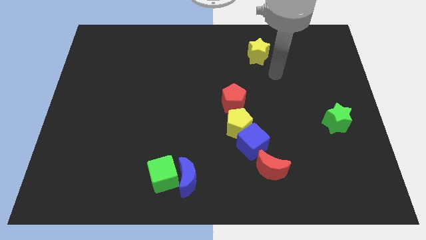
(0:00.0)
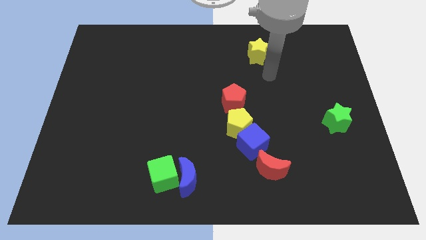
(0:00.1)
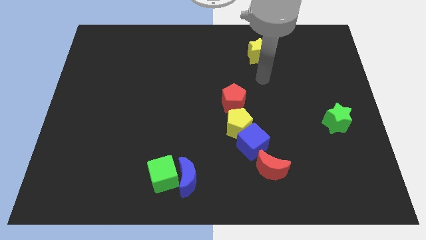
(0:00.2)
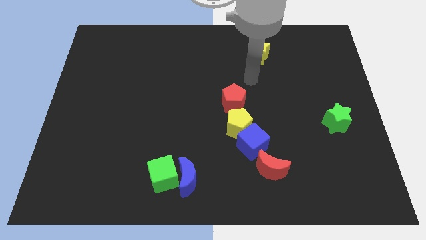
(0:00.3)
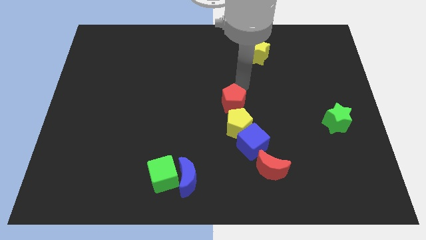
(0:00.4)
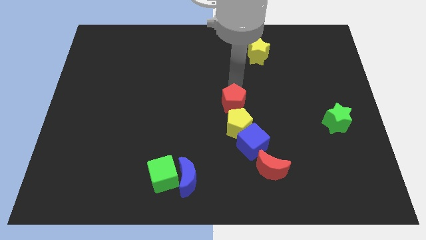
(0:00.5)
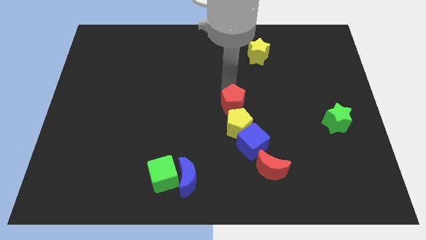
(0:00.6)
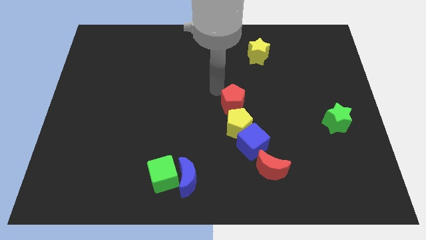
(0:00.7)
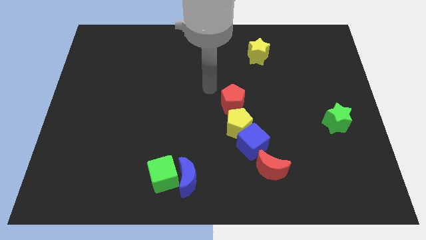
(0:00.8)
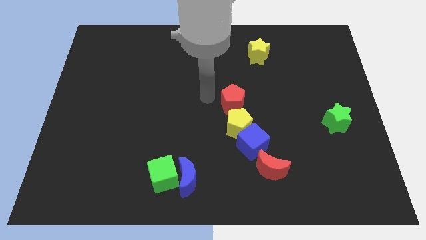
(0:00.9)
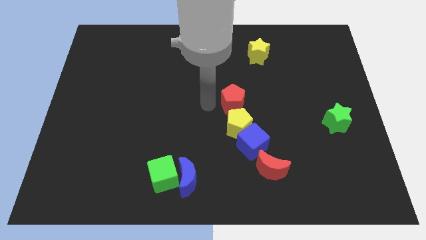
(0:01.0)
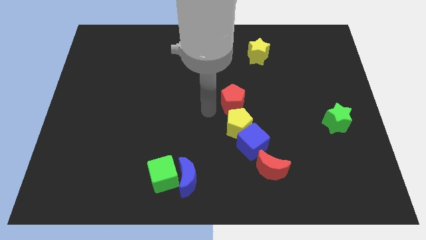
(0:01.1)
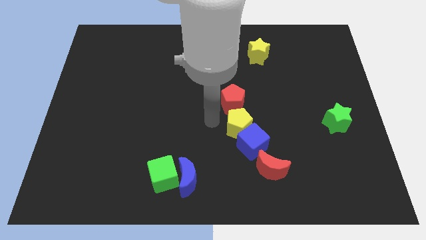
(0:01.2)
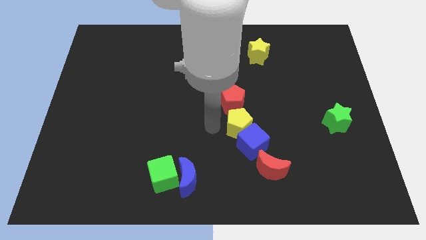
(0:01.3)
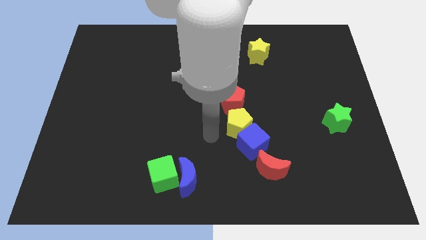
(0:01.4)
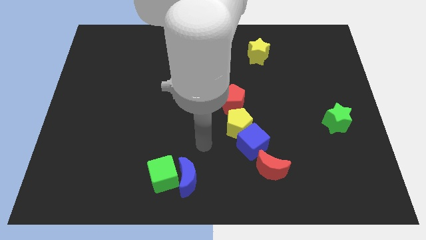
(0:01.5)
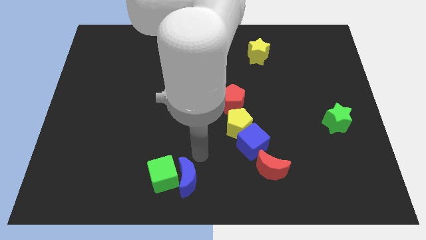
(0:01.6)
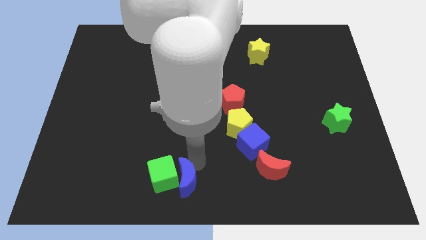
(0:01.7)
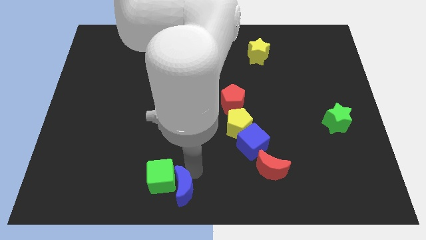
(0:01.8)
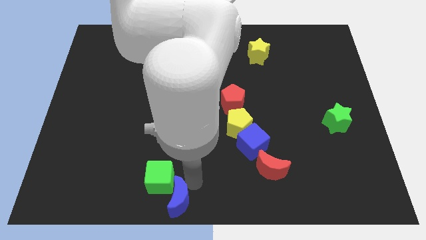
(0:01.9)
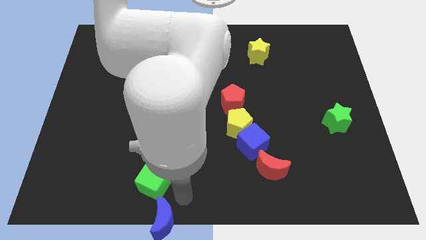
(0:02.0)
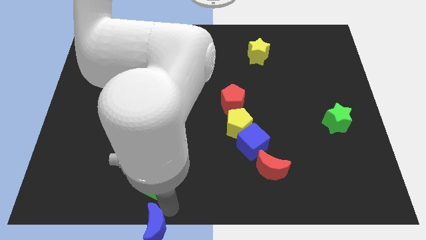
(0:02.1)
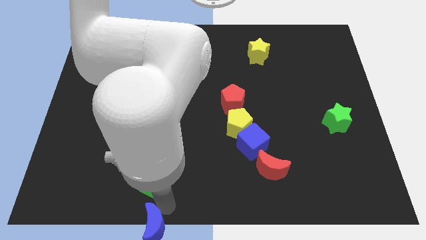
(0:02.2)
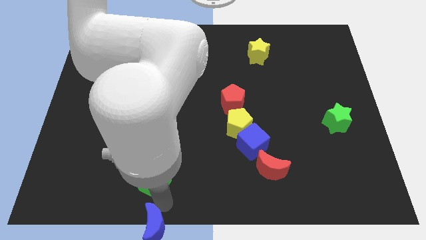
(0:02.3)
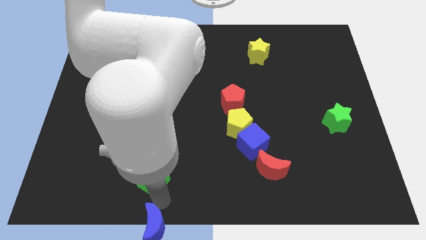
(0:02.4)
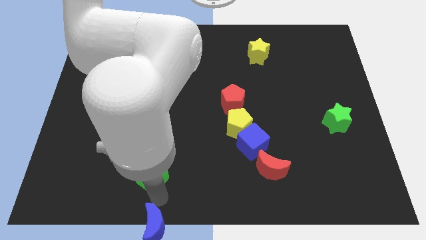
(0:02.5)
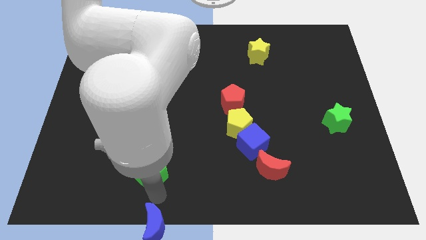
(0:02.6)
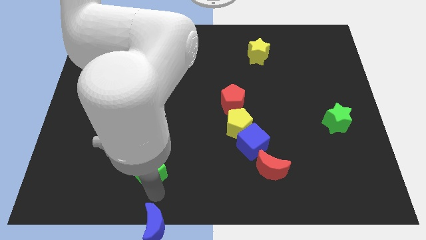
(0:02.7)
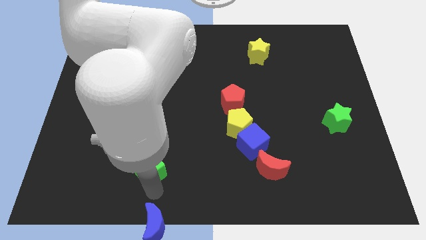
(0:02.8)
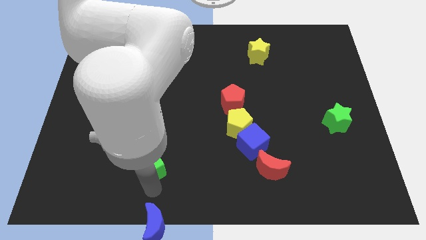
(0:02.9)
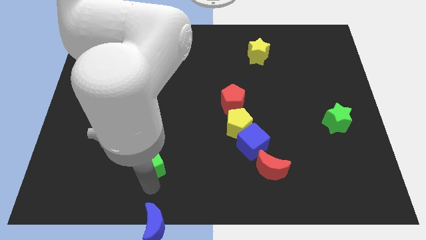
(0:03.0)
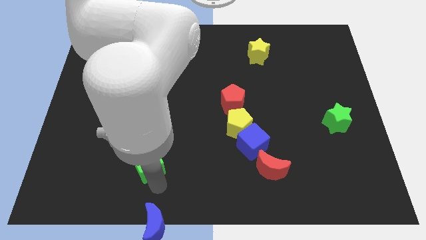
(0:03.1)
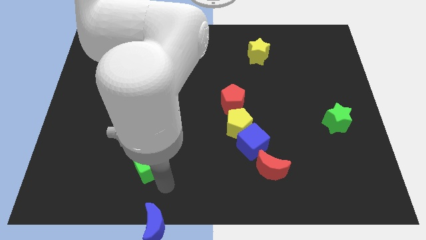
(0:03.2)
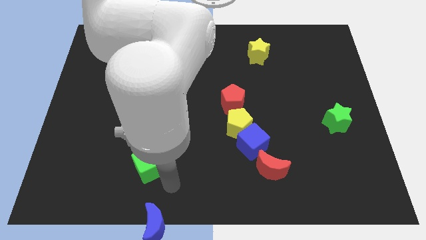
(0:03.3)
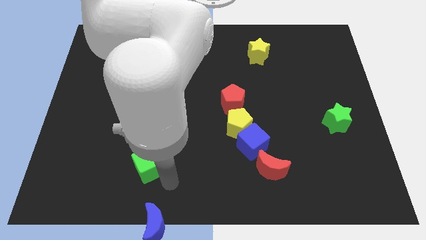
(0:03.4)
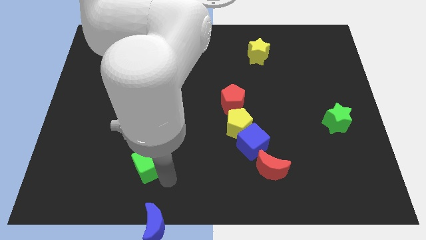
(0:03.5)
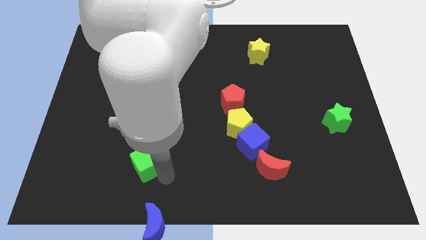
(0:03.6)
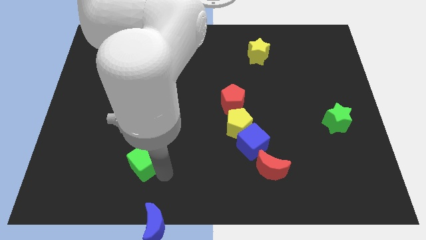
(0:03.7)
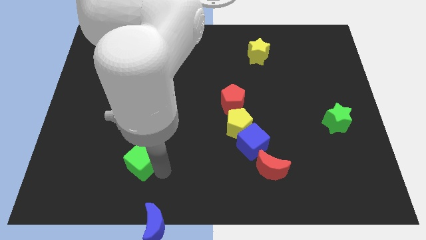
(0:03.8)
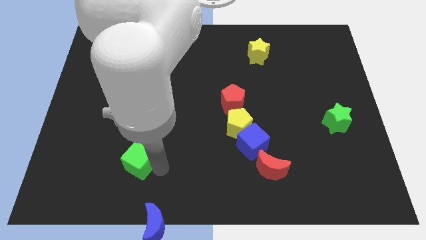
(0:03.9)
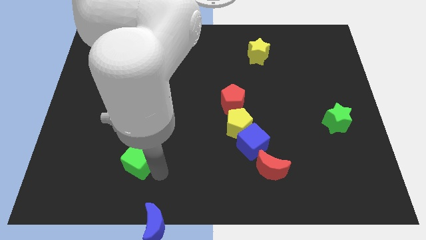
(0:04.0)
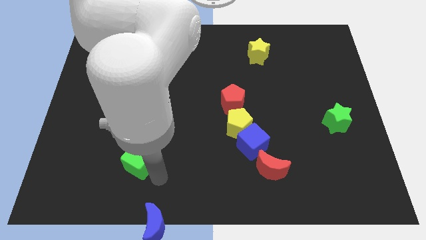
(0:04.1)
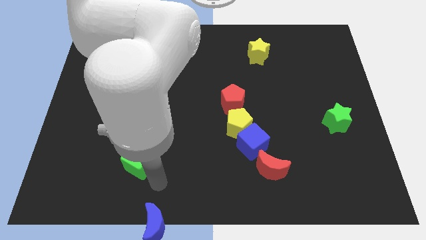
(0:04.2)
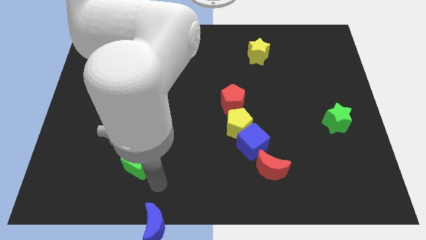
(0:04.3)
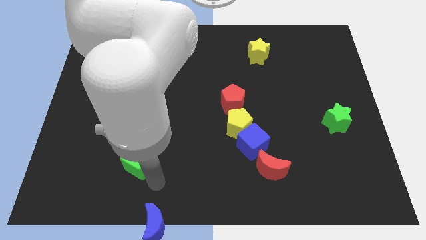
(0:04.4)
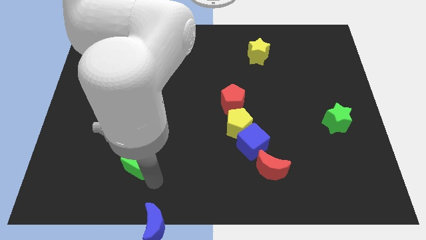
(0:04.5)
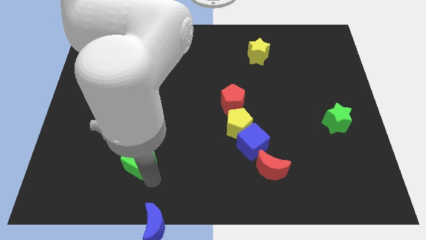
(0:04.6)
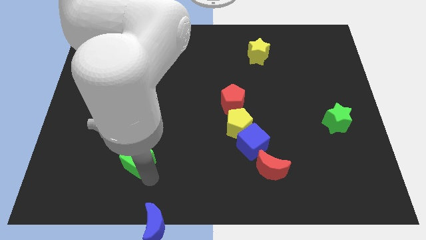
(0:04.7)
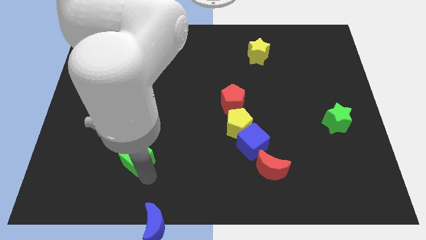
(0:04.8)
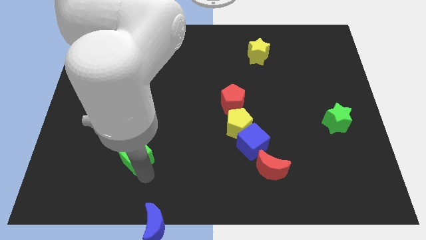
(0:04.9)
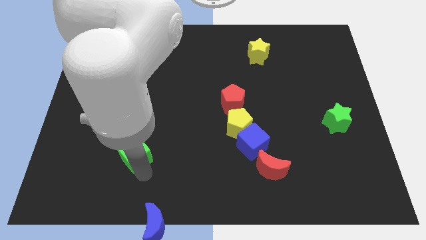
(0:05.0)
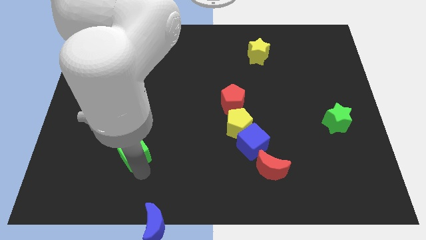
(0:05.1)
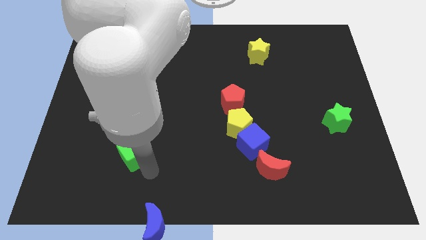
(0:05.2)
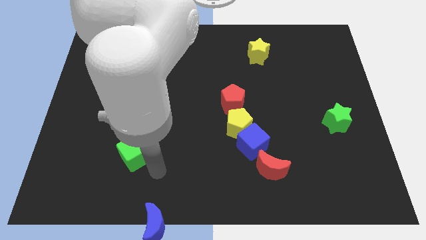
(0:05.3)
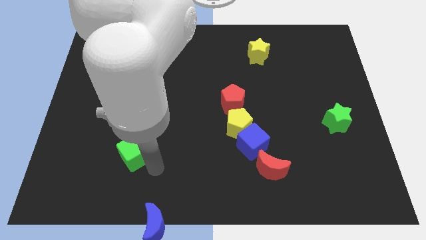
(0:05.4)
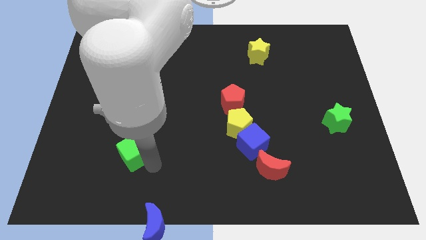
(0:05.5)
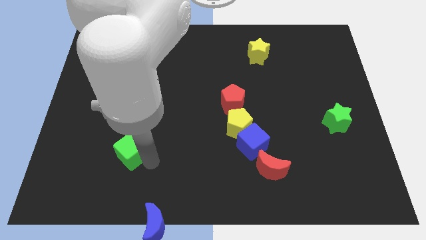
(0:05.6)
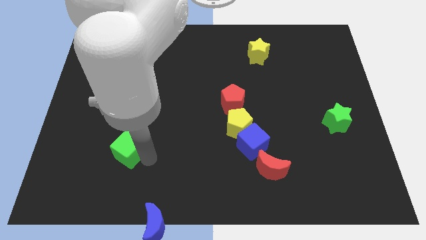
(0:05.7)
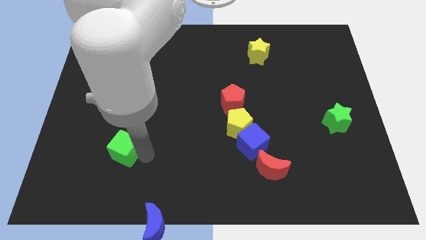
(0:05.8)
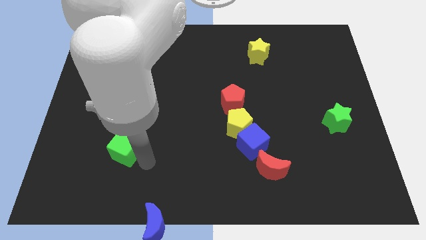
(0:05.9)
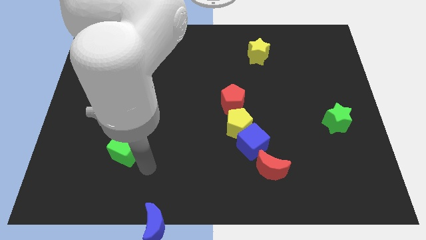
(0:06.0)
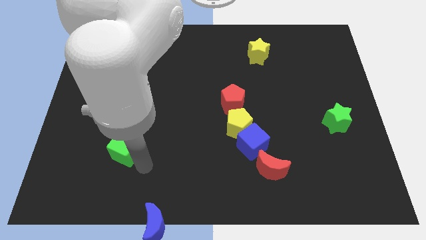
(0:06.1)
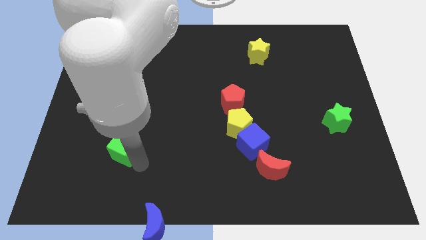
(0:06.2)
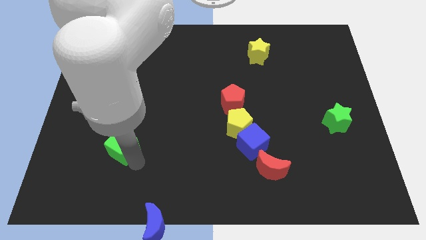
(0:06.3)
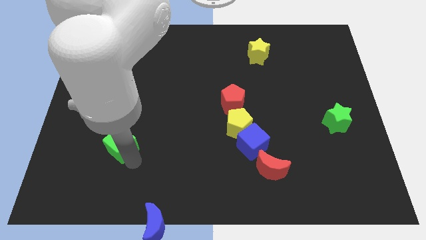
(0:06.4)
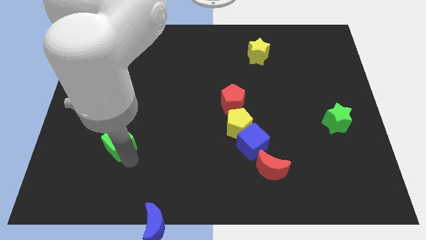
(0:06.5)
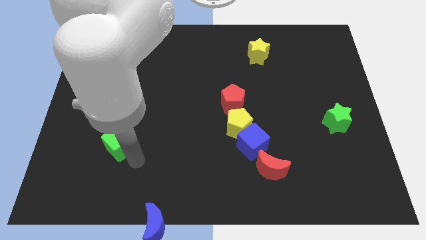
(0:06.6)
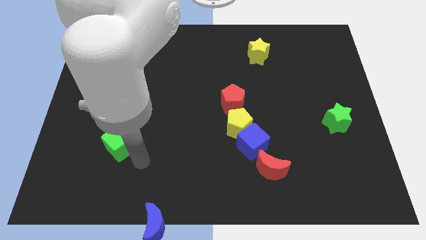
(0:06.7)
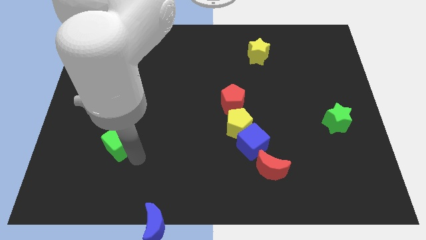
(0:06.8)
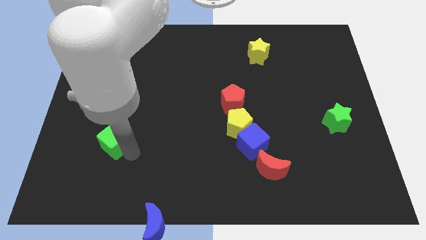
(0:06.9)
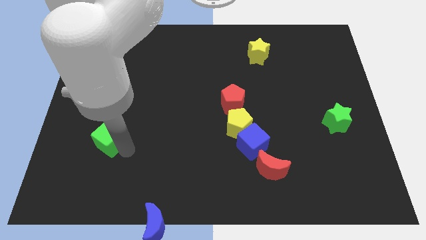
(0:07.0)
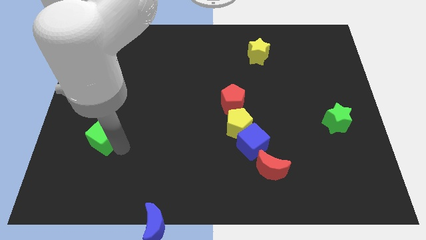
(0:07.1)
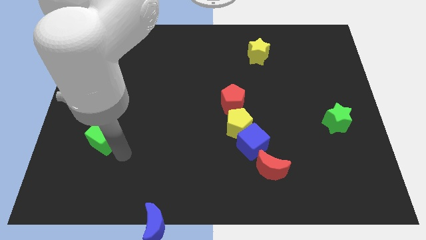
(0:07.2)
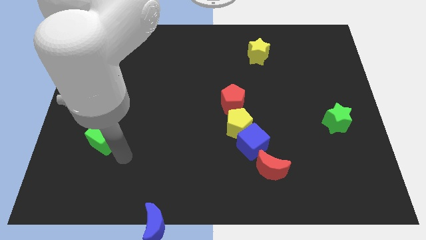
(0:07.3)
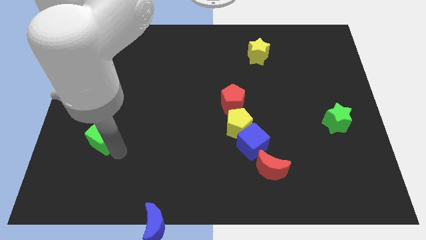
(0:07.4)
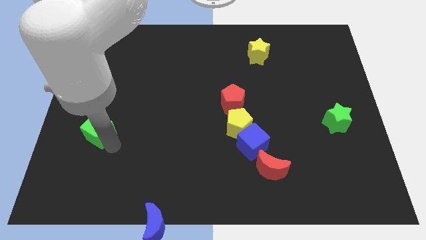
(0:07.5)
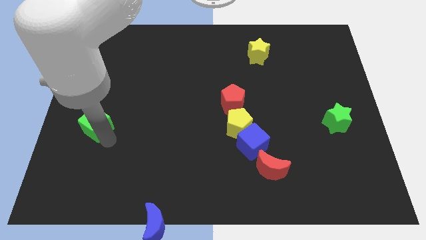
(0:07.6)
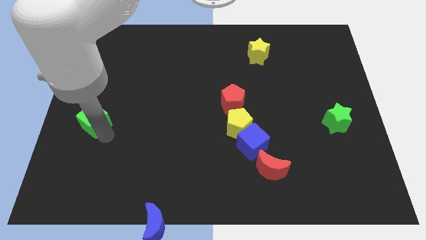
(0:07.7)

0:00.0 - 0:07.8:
push the green cube to the left side of the board

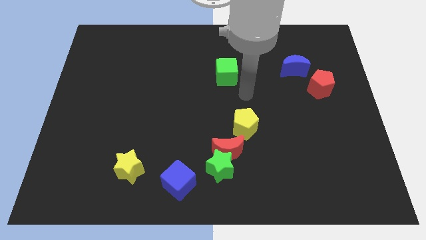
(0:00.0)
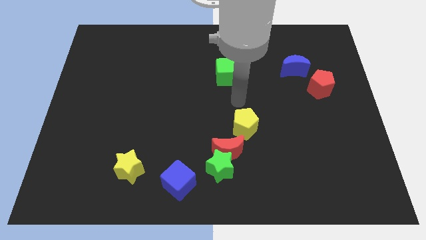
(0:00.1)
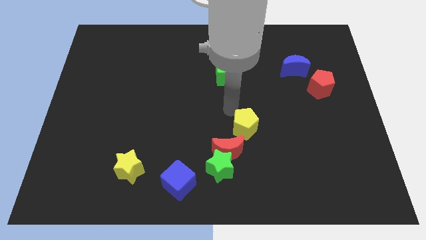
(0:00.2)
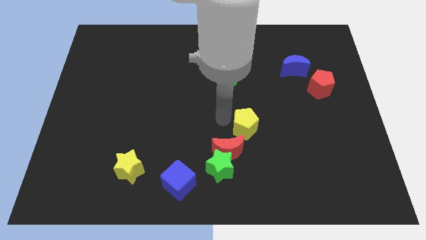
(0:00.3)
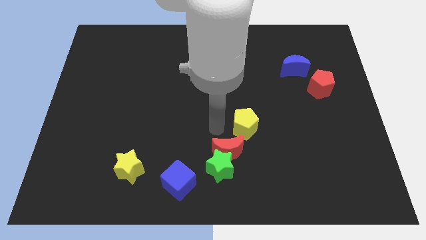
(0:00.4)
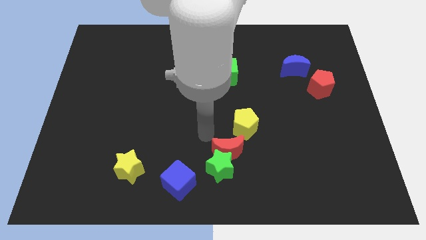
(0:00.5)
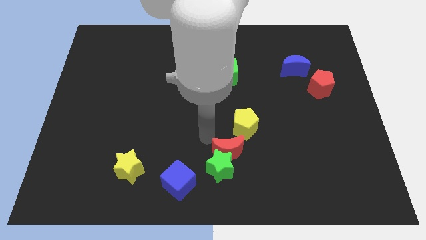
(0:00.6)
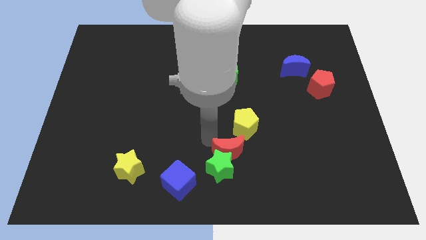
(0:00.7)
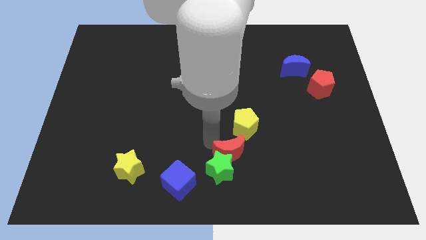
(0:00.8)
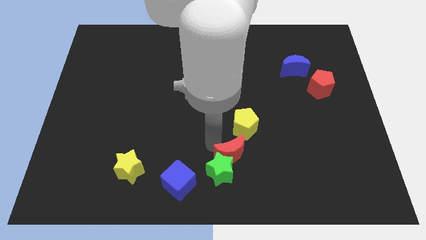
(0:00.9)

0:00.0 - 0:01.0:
push the red moon to the bottom
